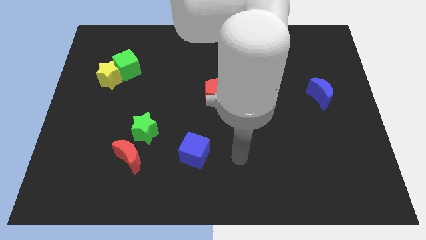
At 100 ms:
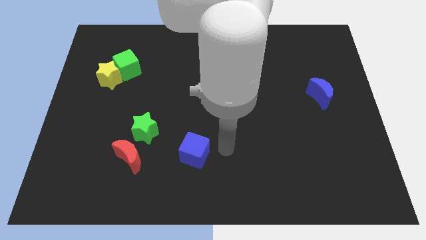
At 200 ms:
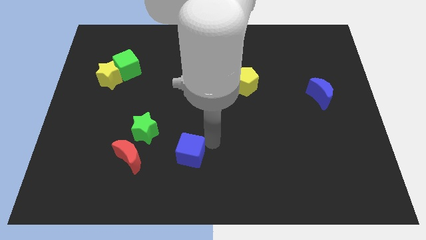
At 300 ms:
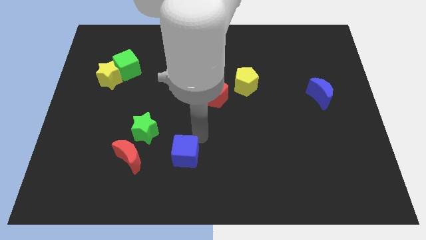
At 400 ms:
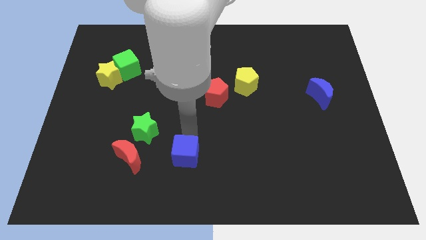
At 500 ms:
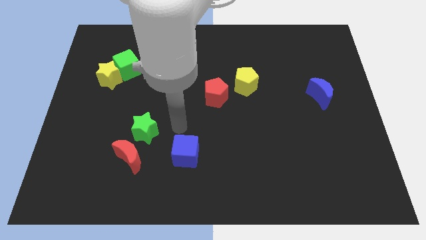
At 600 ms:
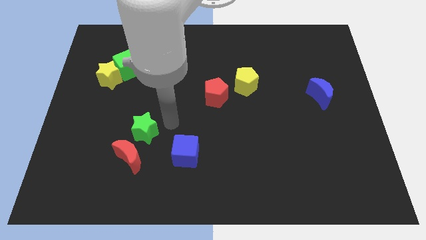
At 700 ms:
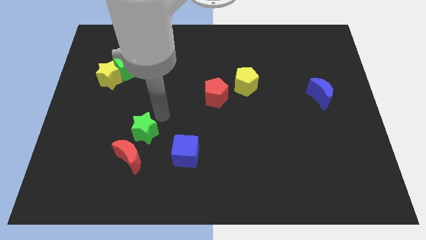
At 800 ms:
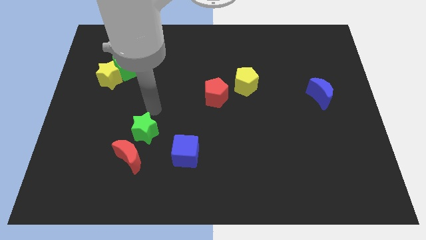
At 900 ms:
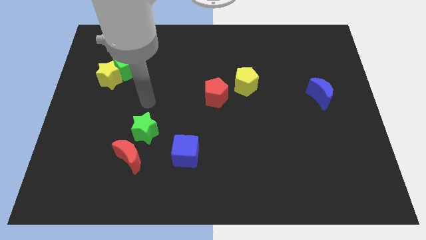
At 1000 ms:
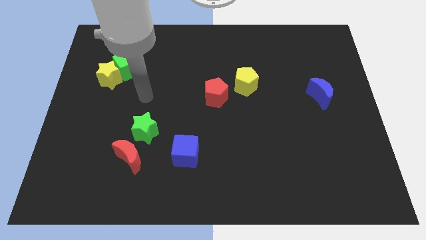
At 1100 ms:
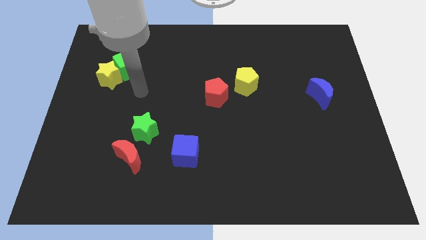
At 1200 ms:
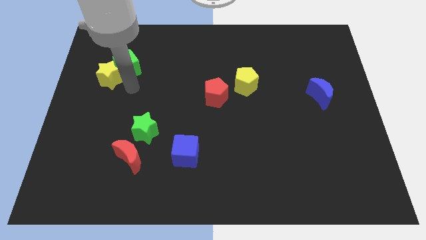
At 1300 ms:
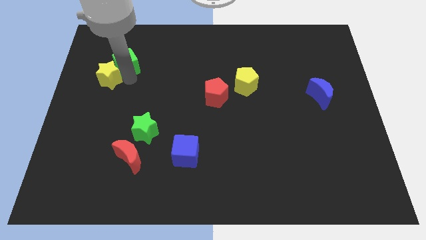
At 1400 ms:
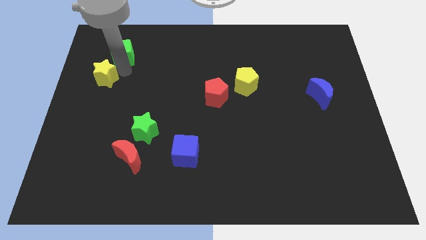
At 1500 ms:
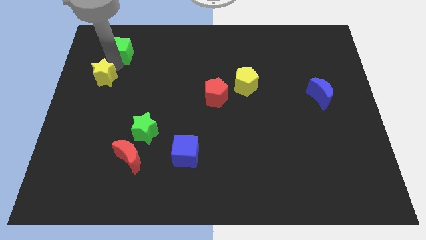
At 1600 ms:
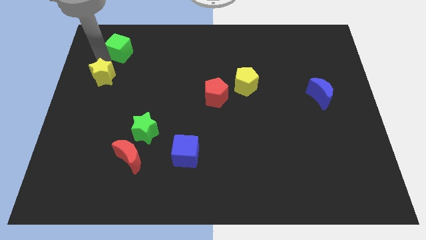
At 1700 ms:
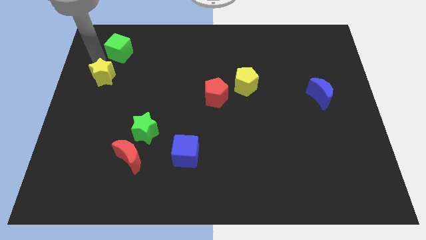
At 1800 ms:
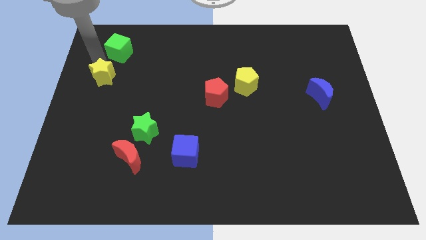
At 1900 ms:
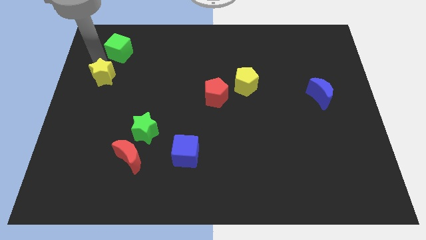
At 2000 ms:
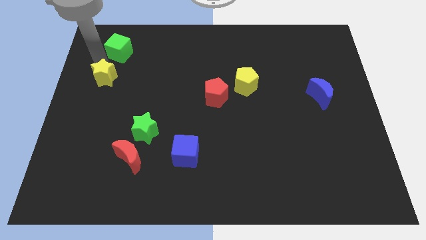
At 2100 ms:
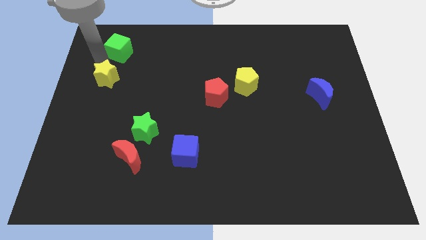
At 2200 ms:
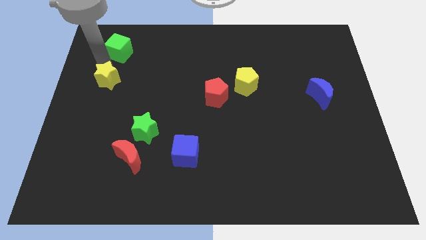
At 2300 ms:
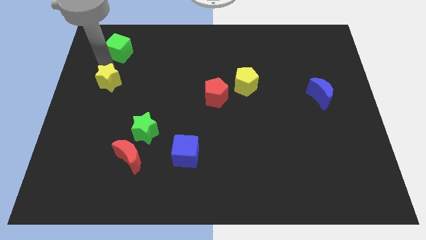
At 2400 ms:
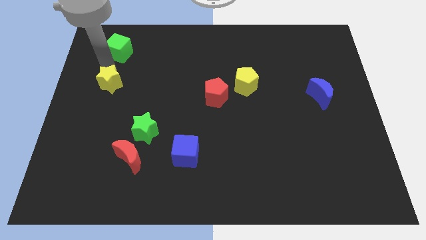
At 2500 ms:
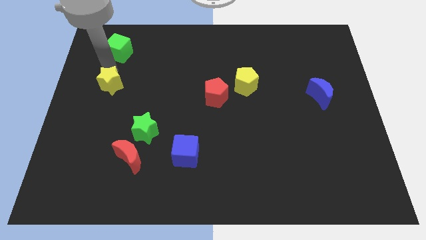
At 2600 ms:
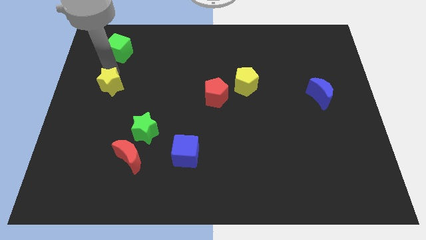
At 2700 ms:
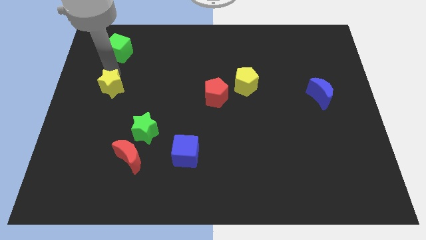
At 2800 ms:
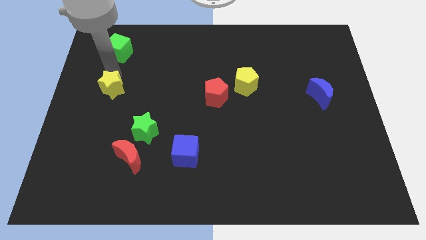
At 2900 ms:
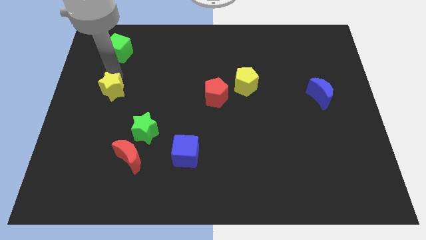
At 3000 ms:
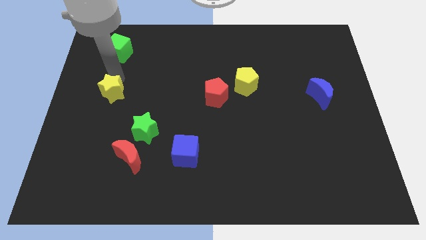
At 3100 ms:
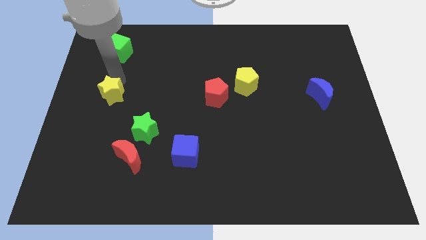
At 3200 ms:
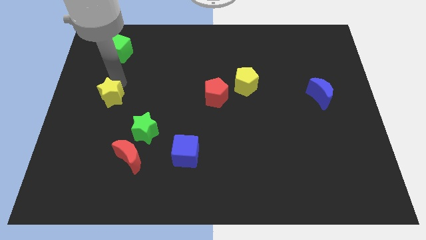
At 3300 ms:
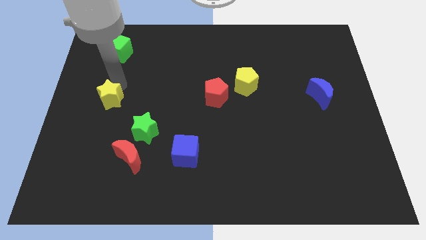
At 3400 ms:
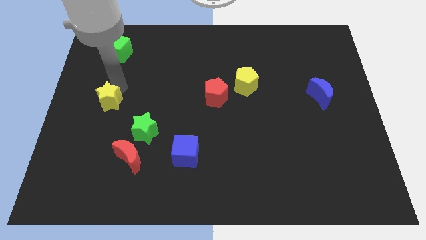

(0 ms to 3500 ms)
slide the yellow star downwards somewhat

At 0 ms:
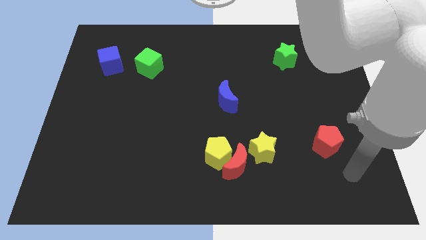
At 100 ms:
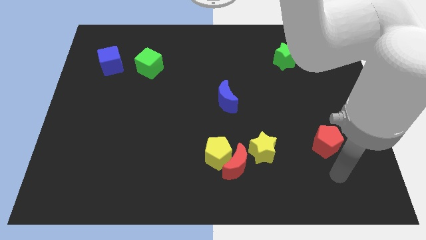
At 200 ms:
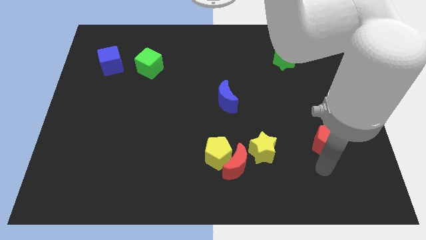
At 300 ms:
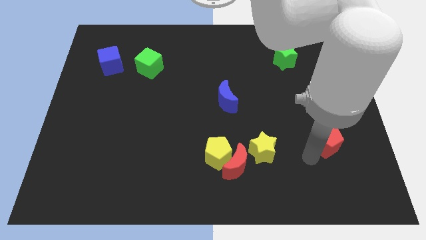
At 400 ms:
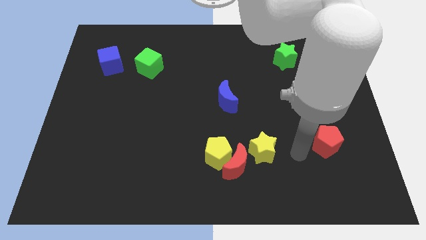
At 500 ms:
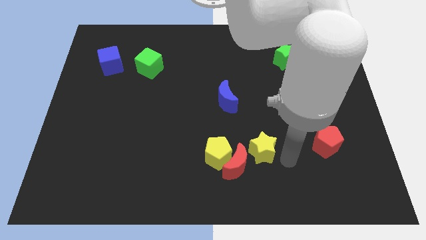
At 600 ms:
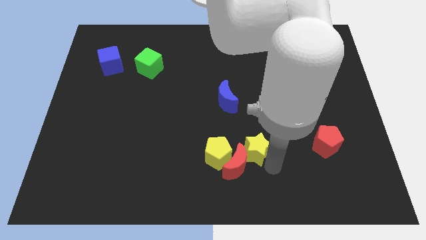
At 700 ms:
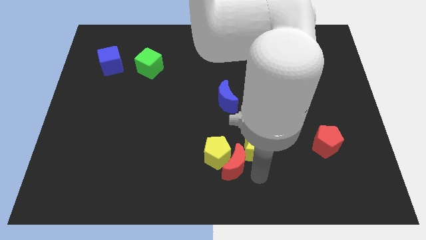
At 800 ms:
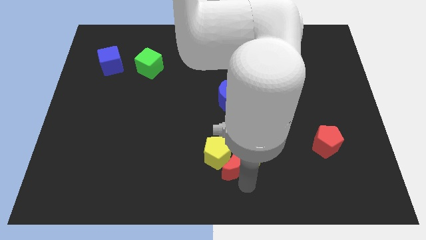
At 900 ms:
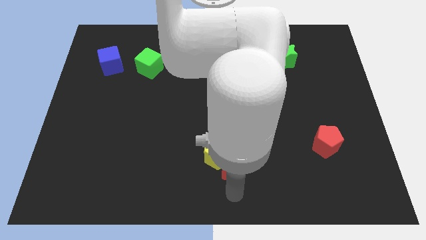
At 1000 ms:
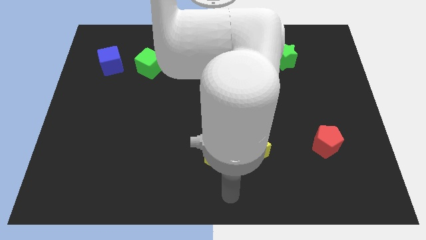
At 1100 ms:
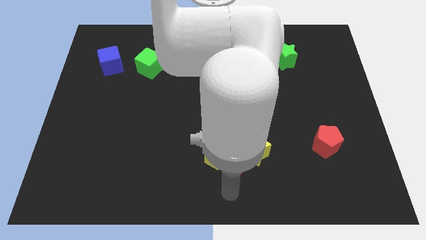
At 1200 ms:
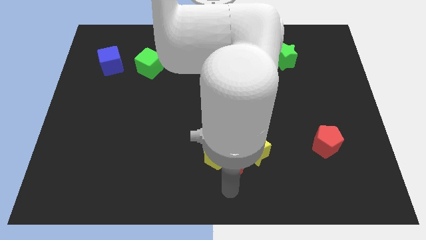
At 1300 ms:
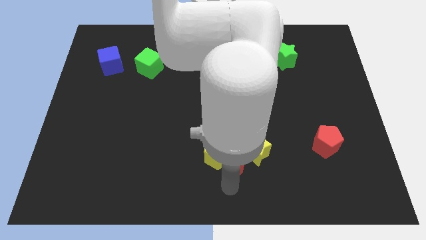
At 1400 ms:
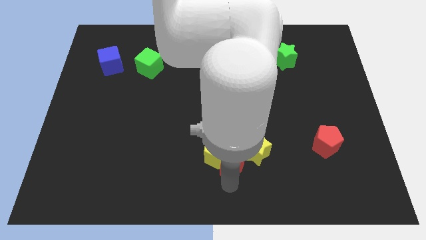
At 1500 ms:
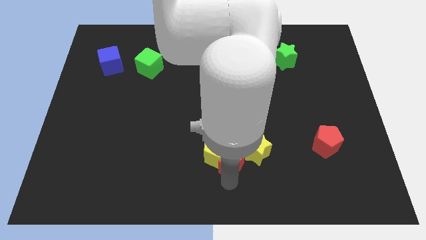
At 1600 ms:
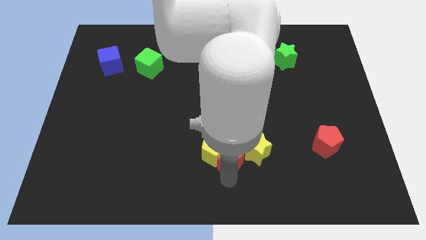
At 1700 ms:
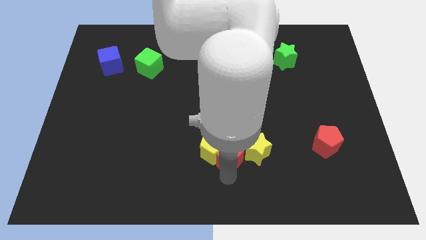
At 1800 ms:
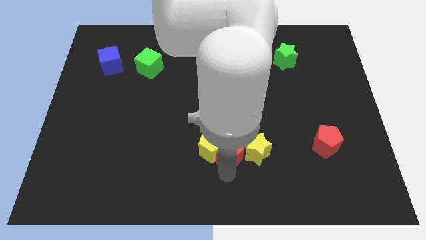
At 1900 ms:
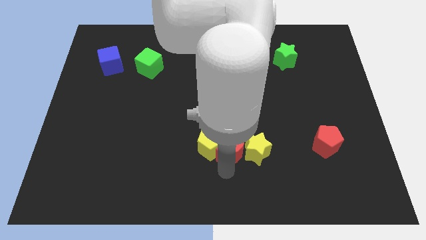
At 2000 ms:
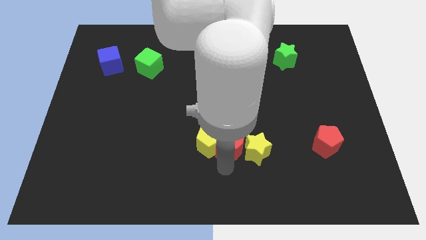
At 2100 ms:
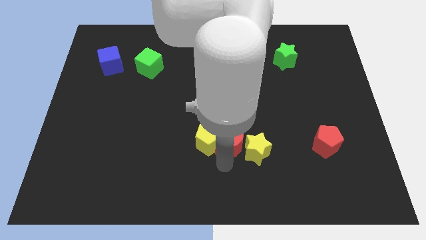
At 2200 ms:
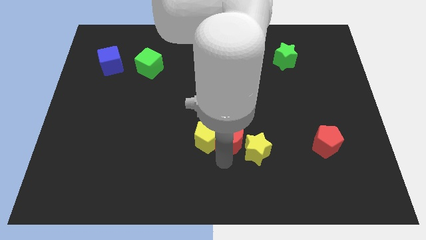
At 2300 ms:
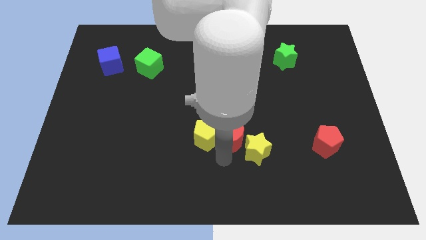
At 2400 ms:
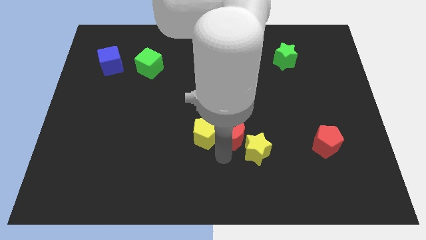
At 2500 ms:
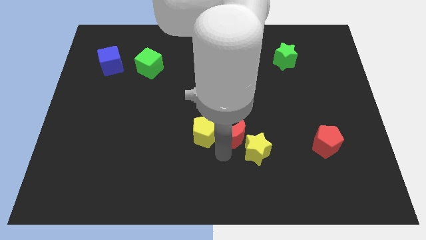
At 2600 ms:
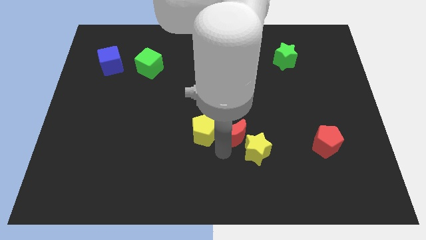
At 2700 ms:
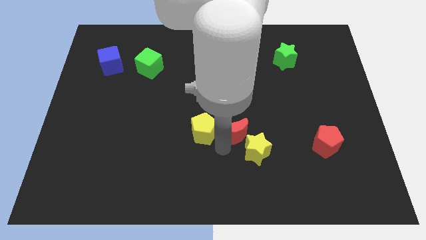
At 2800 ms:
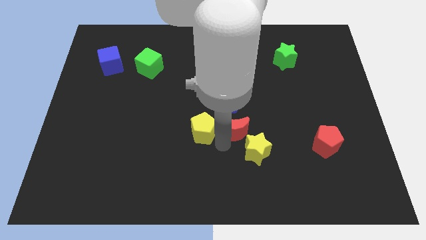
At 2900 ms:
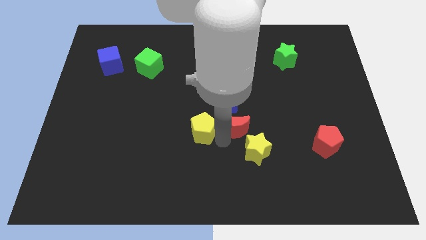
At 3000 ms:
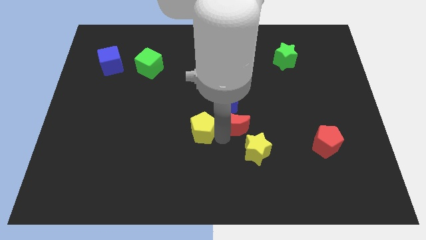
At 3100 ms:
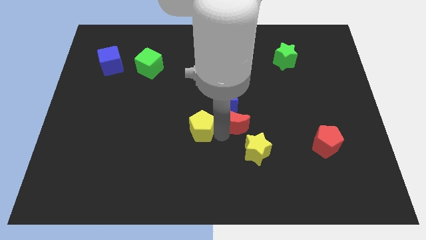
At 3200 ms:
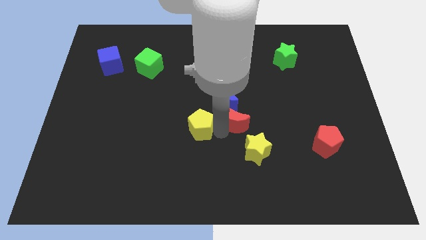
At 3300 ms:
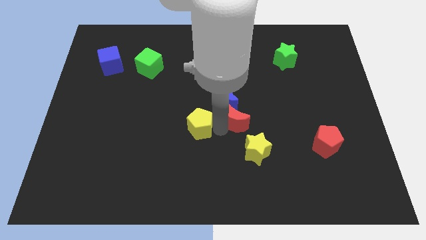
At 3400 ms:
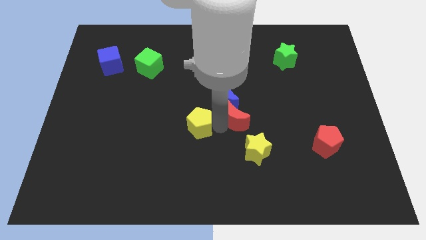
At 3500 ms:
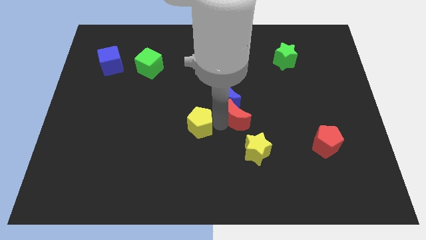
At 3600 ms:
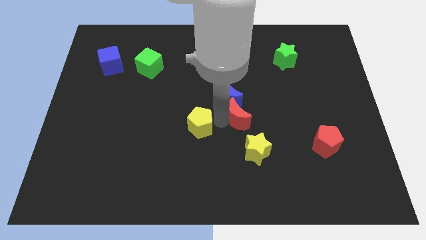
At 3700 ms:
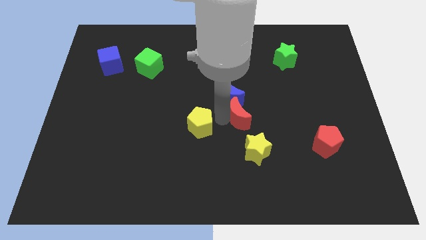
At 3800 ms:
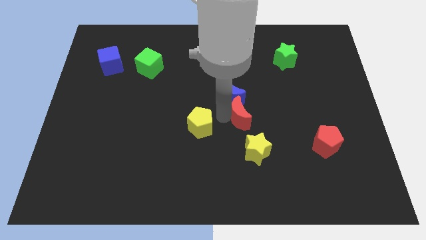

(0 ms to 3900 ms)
push the red moon up and to the right a little bit

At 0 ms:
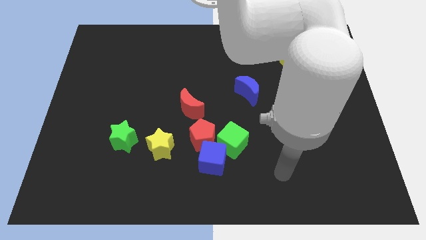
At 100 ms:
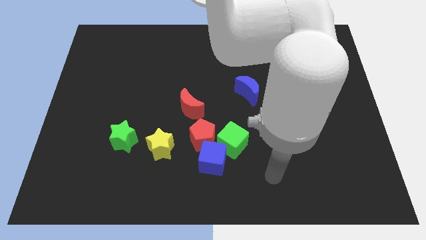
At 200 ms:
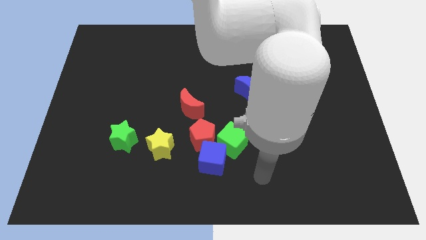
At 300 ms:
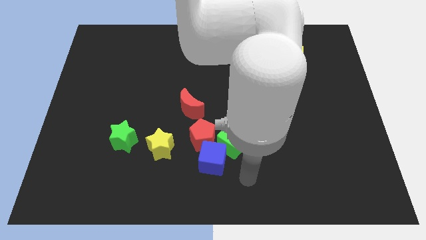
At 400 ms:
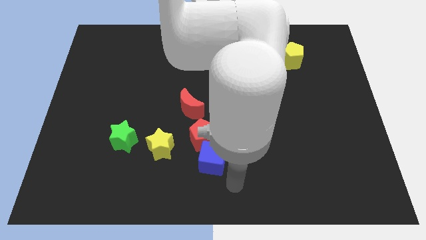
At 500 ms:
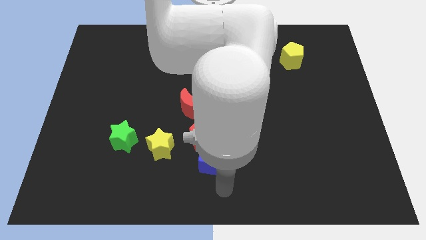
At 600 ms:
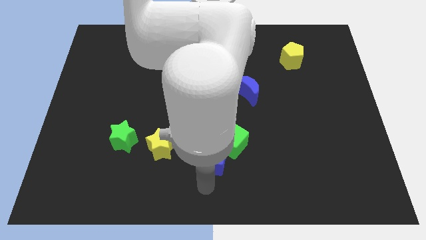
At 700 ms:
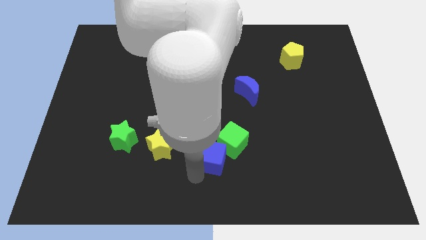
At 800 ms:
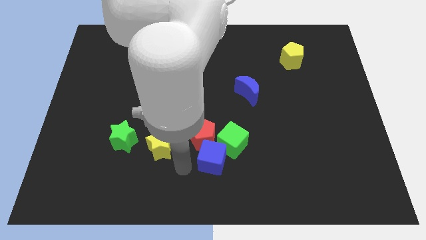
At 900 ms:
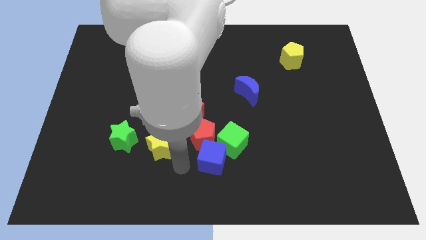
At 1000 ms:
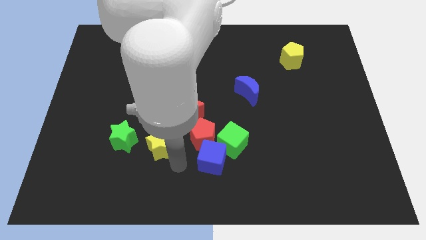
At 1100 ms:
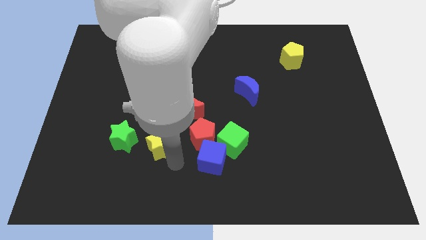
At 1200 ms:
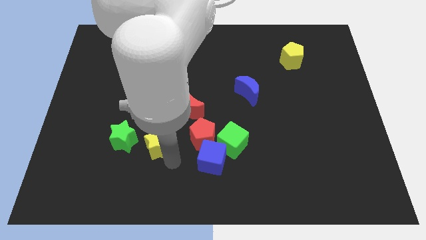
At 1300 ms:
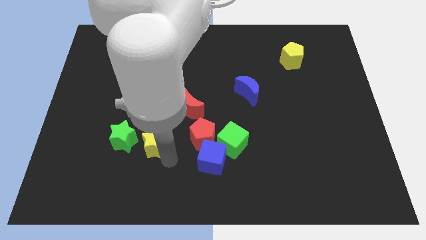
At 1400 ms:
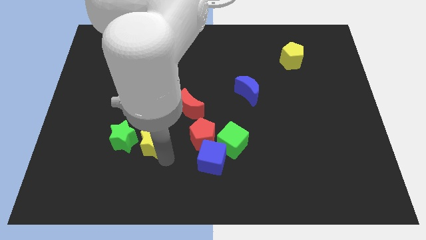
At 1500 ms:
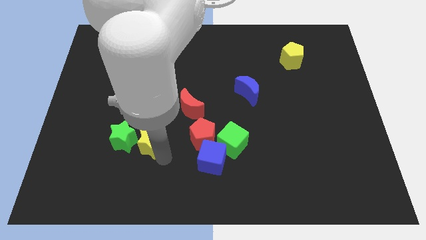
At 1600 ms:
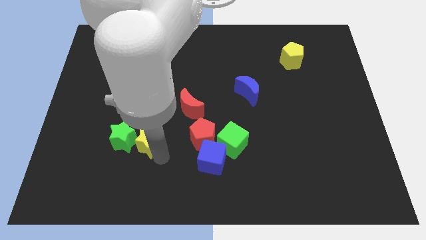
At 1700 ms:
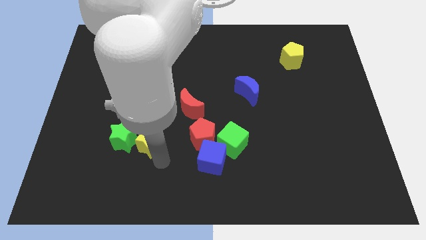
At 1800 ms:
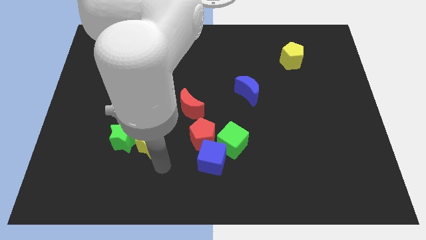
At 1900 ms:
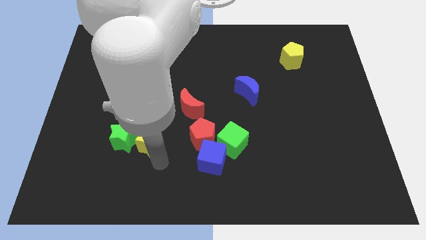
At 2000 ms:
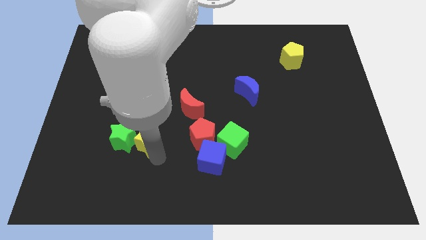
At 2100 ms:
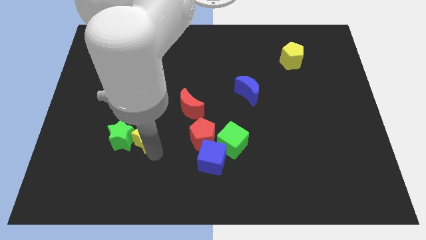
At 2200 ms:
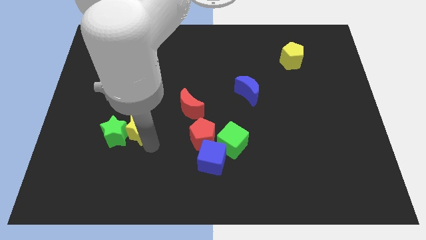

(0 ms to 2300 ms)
move the yellow star a bit up and left diagonally
